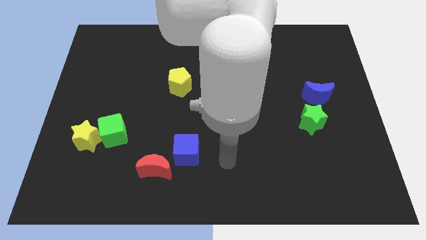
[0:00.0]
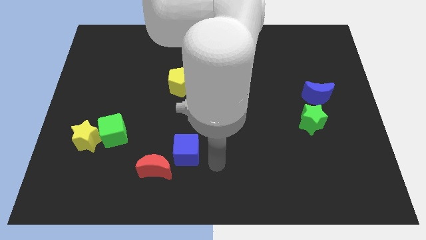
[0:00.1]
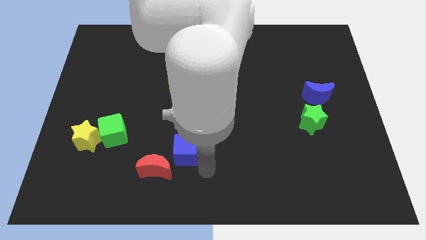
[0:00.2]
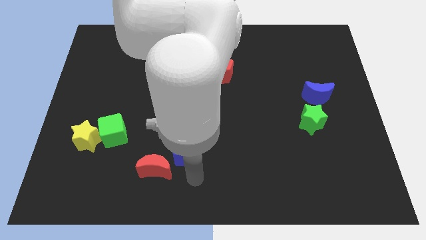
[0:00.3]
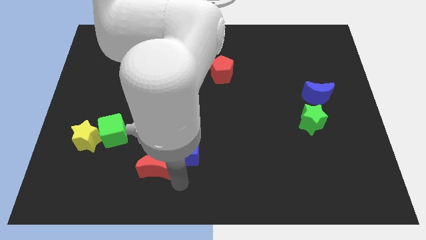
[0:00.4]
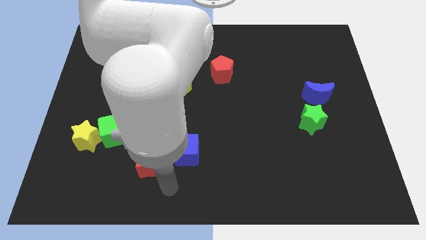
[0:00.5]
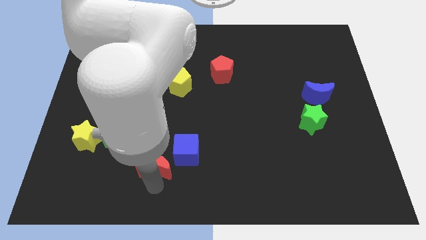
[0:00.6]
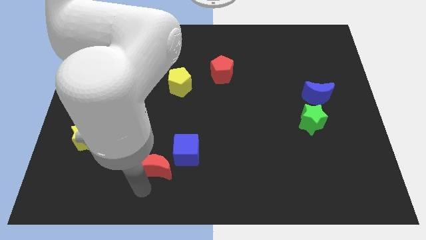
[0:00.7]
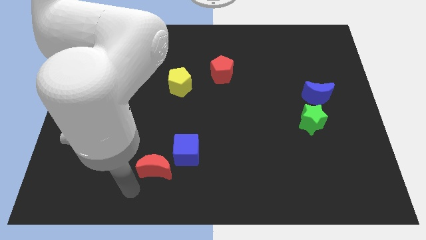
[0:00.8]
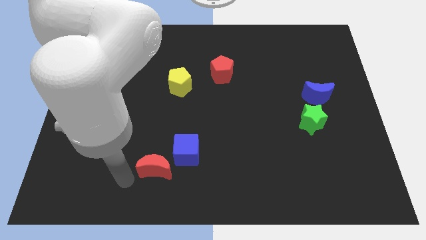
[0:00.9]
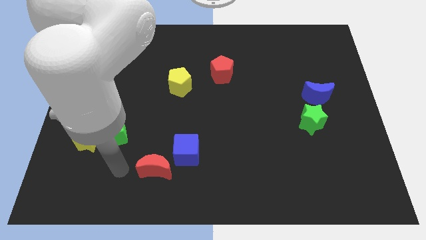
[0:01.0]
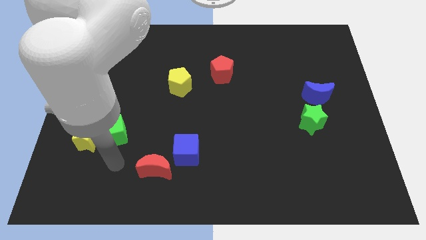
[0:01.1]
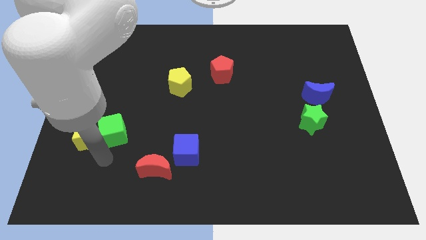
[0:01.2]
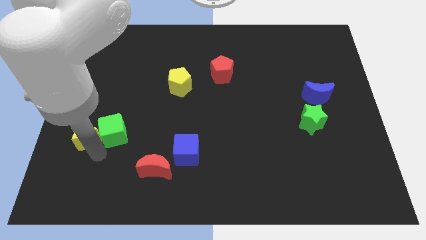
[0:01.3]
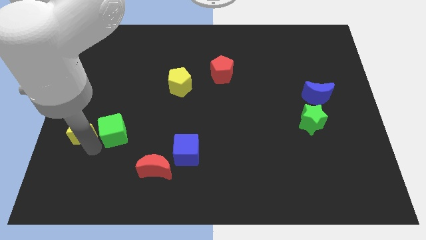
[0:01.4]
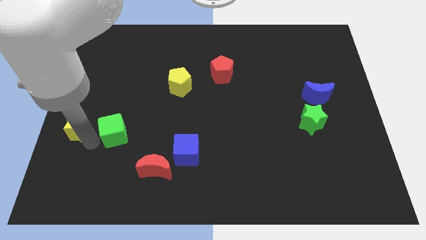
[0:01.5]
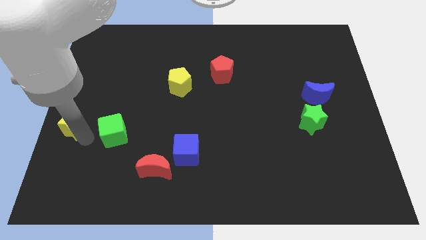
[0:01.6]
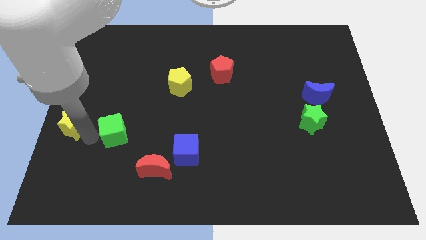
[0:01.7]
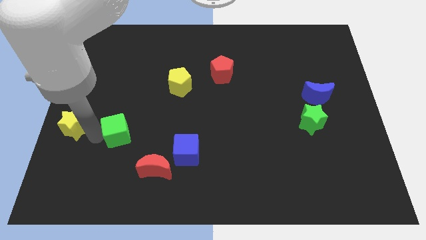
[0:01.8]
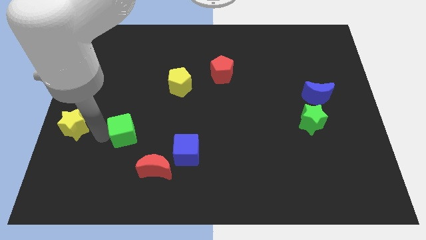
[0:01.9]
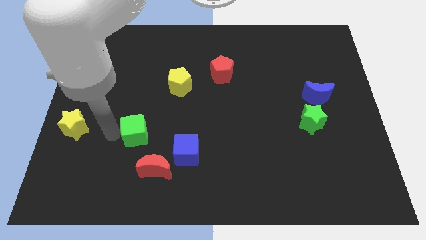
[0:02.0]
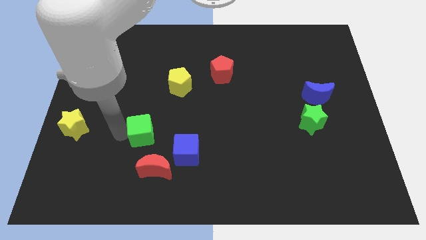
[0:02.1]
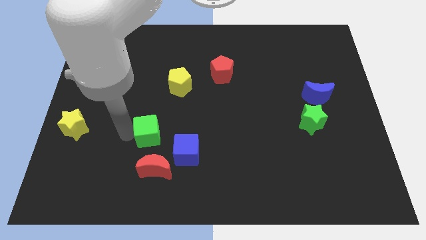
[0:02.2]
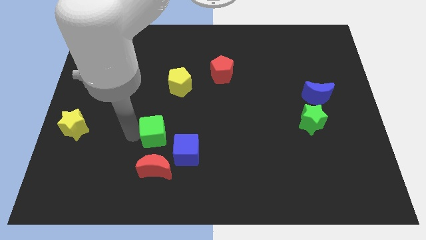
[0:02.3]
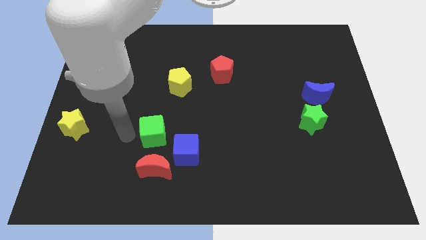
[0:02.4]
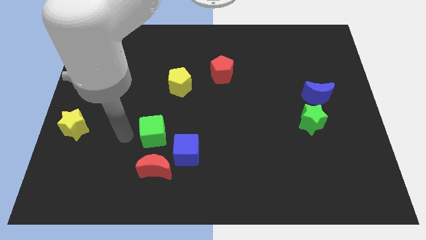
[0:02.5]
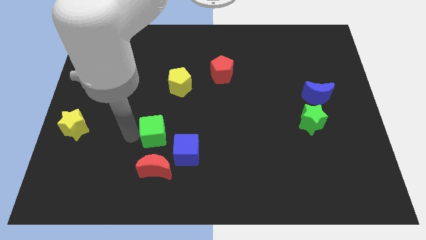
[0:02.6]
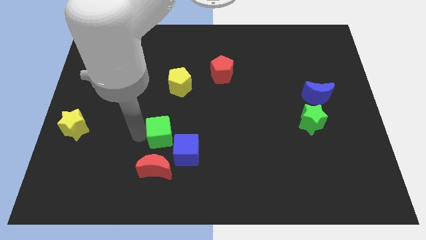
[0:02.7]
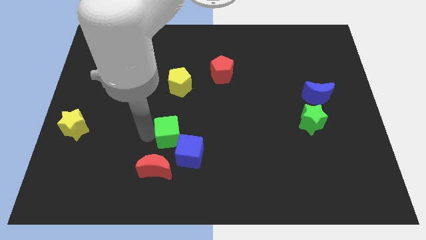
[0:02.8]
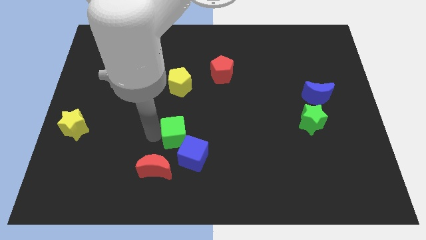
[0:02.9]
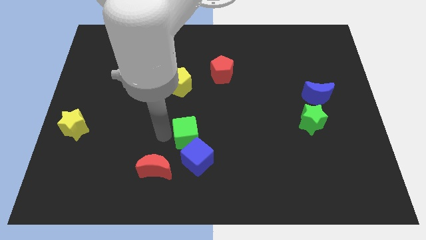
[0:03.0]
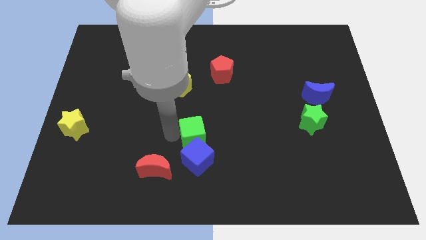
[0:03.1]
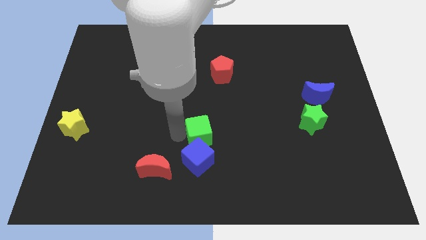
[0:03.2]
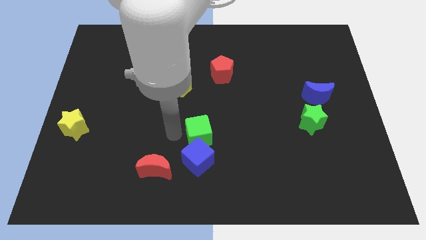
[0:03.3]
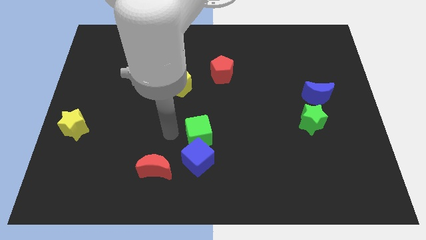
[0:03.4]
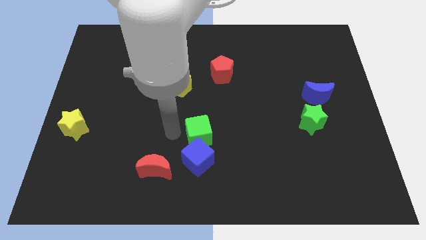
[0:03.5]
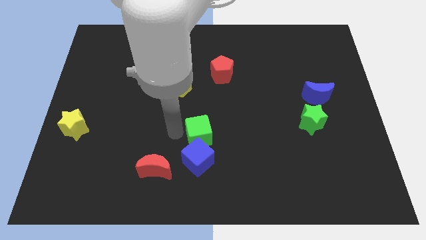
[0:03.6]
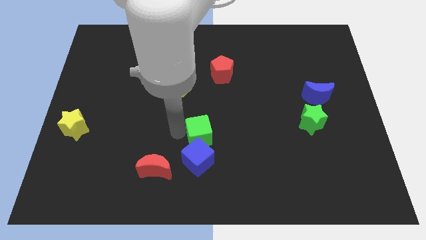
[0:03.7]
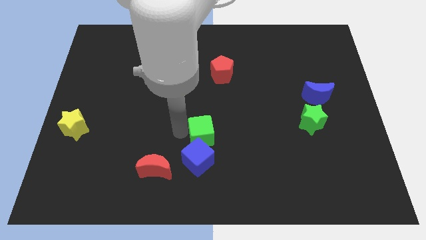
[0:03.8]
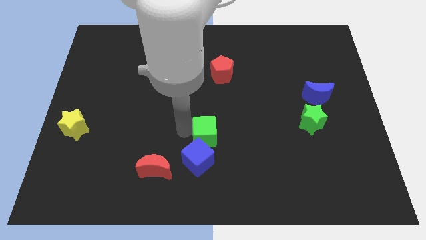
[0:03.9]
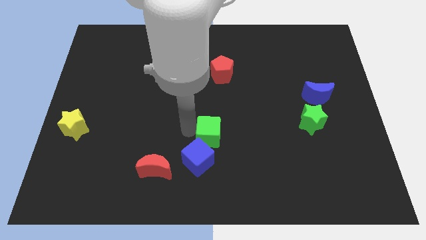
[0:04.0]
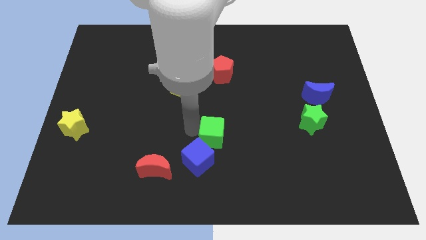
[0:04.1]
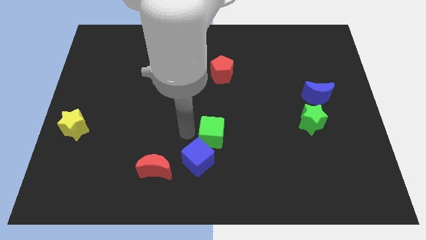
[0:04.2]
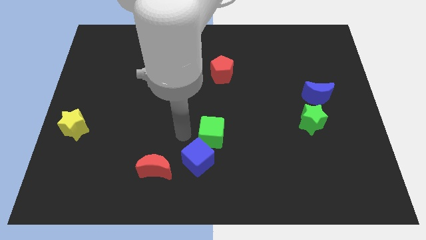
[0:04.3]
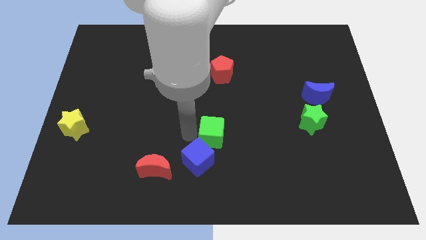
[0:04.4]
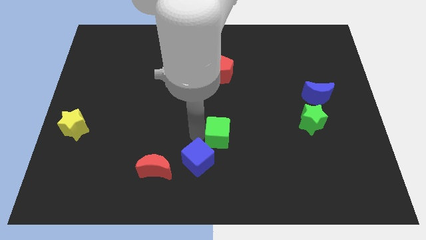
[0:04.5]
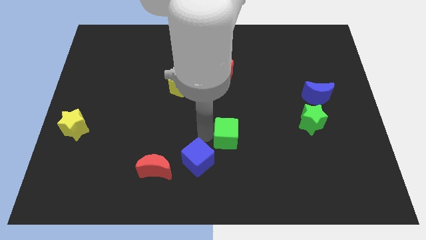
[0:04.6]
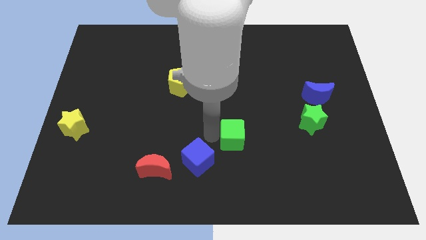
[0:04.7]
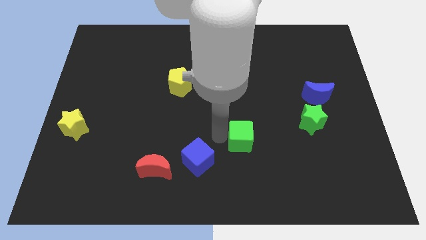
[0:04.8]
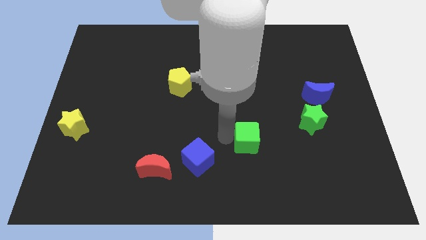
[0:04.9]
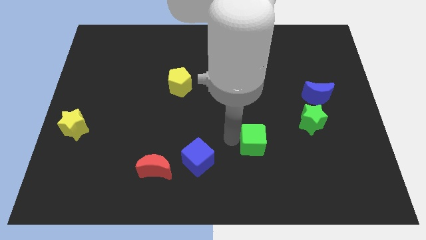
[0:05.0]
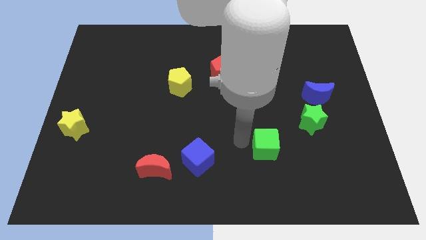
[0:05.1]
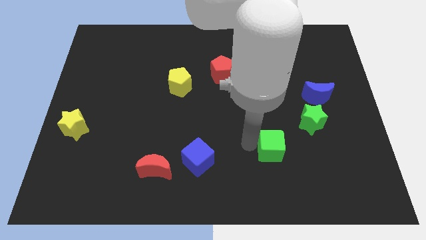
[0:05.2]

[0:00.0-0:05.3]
move the green cube to the bottom left of the green star

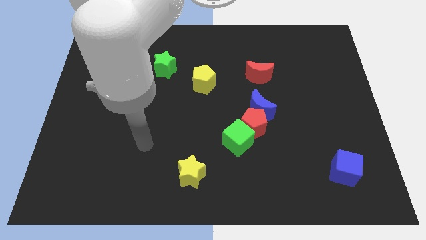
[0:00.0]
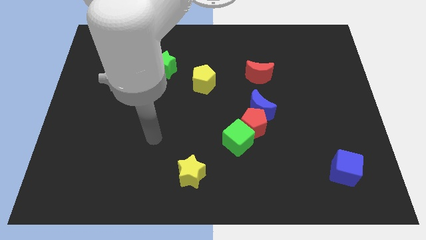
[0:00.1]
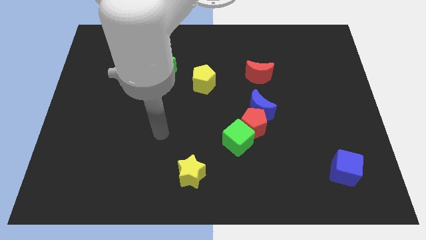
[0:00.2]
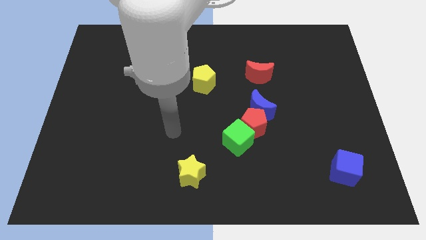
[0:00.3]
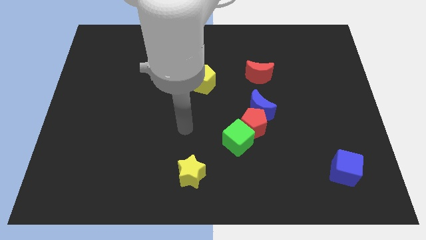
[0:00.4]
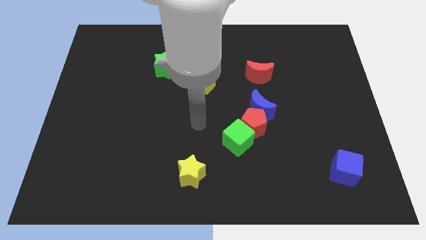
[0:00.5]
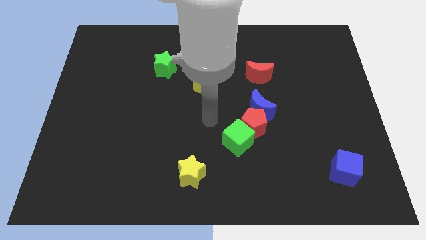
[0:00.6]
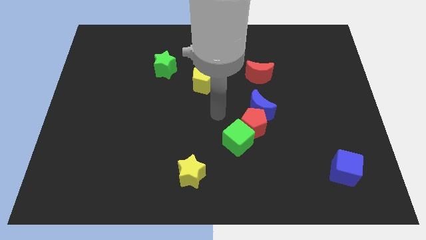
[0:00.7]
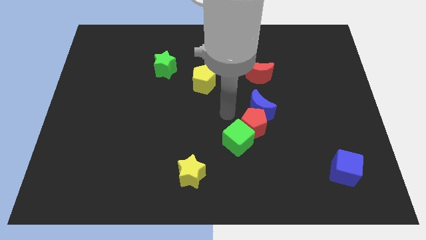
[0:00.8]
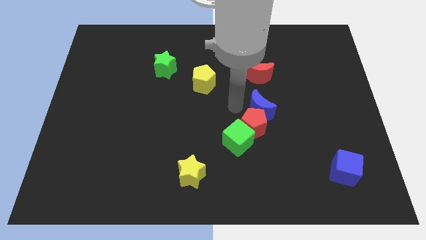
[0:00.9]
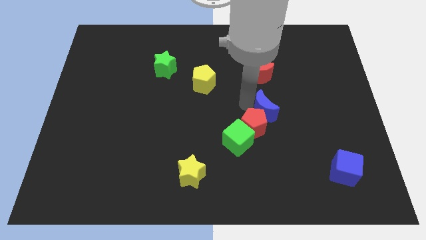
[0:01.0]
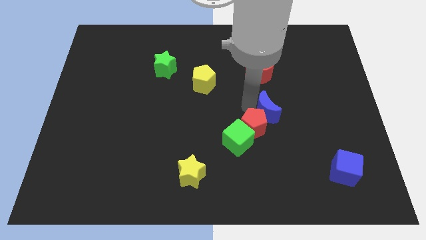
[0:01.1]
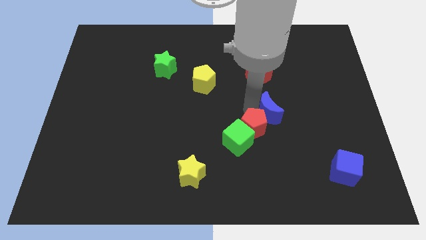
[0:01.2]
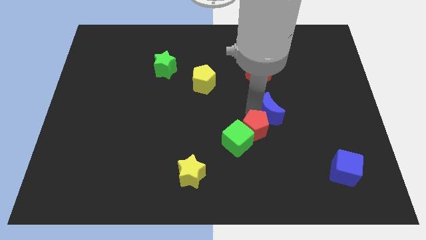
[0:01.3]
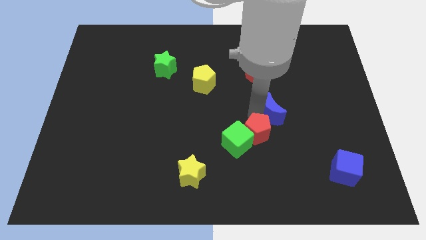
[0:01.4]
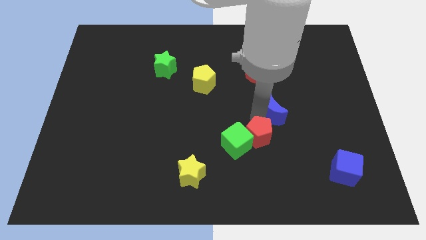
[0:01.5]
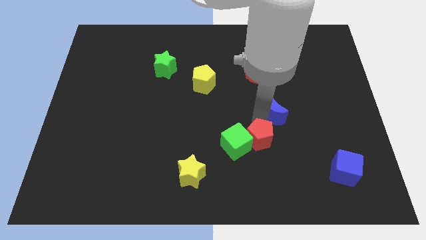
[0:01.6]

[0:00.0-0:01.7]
put the red pentagon diagonally down and to the right of the green cube
